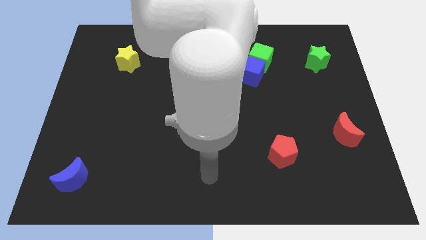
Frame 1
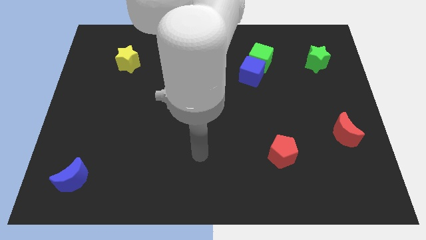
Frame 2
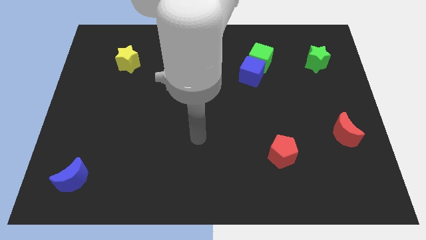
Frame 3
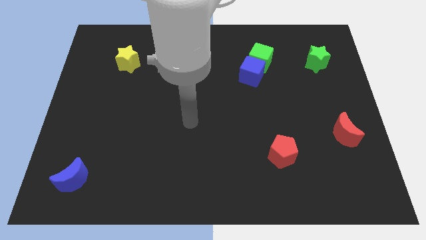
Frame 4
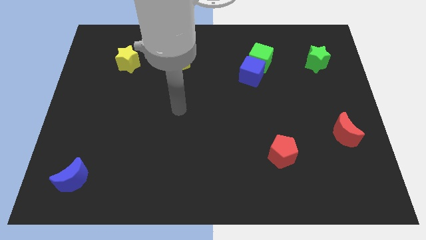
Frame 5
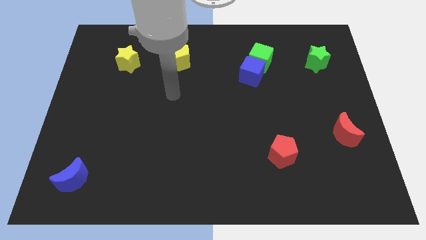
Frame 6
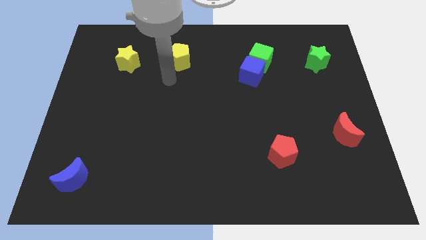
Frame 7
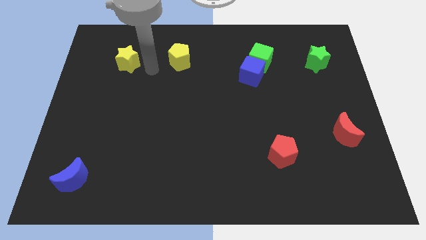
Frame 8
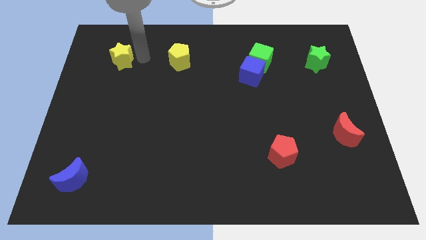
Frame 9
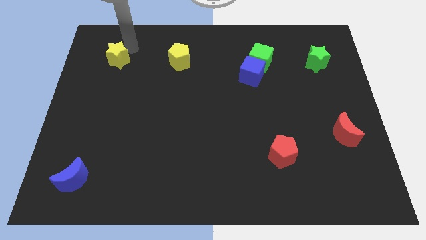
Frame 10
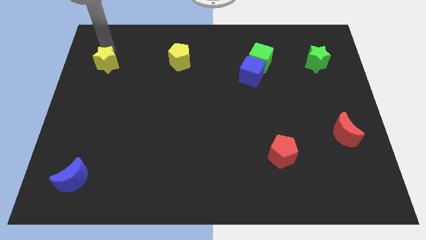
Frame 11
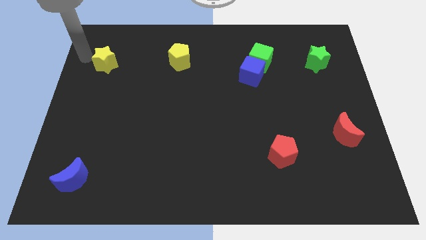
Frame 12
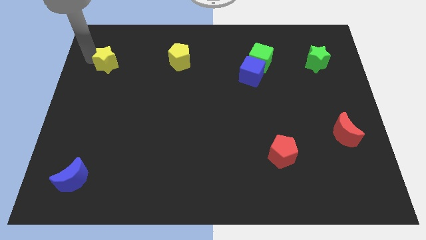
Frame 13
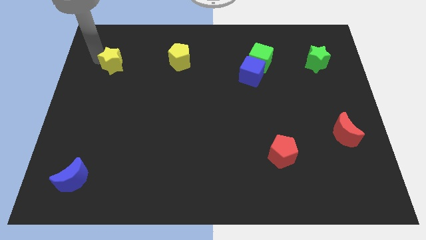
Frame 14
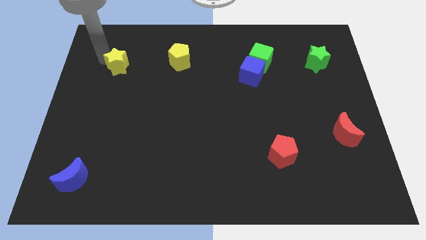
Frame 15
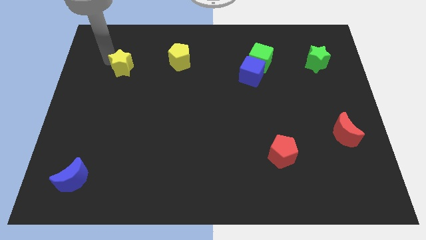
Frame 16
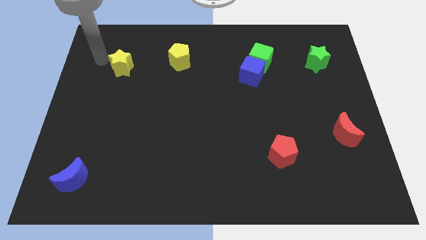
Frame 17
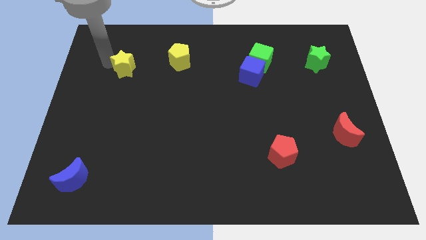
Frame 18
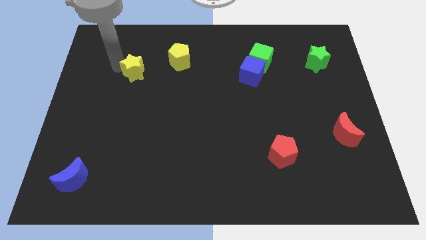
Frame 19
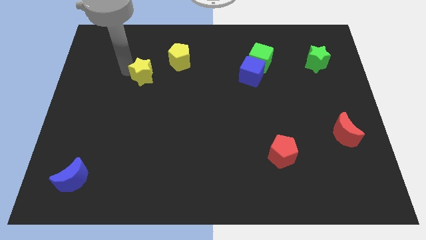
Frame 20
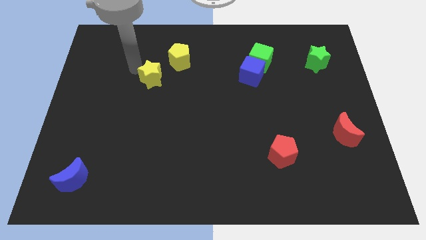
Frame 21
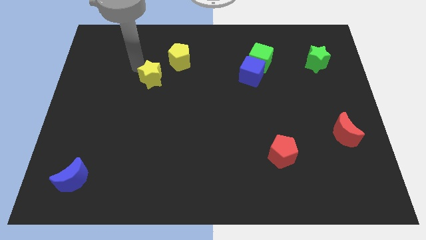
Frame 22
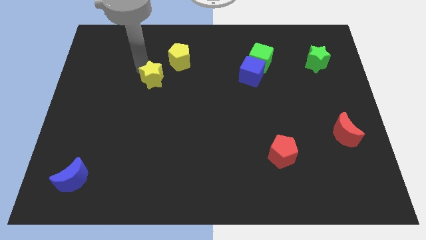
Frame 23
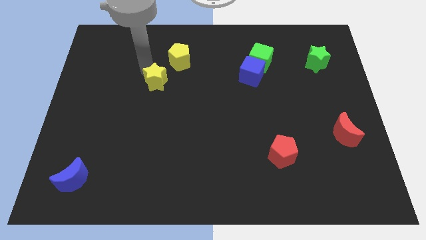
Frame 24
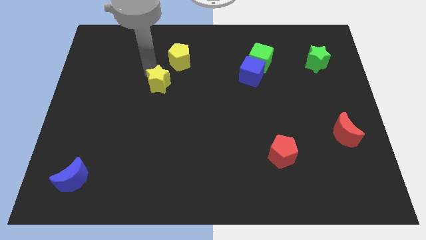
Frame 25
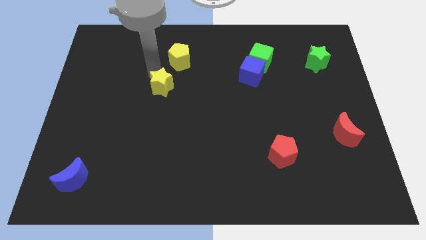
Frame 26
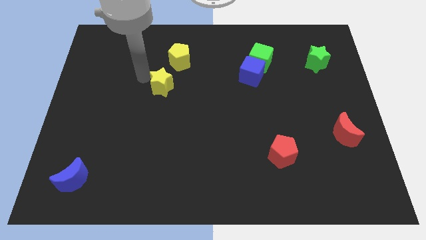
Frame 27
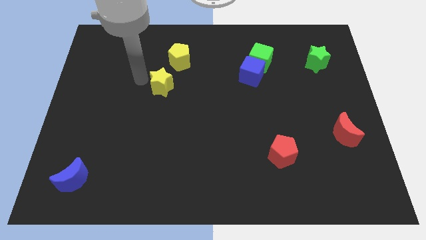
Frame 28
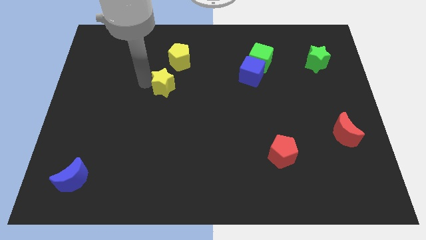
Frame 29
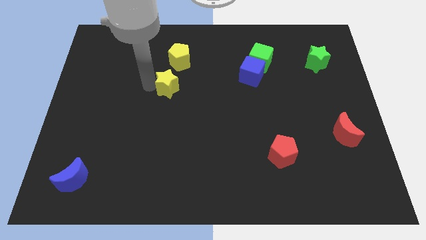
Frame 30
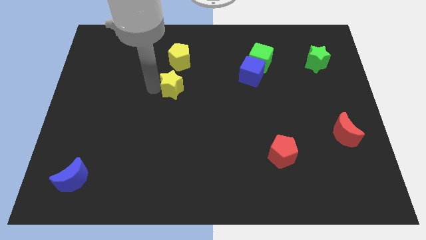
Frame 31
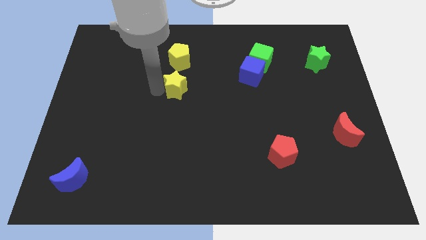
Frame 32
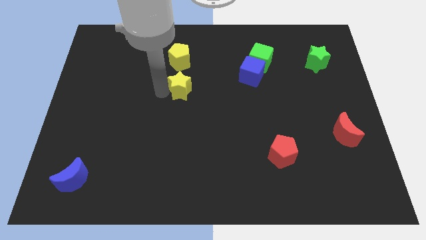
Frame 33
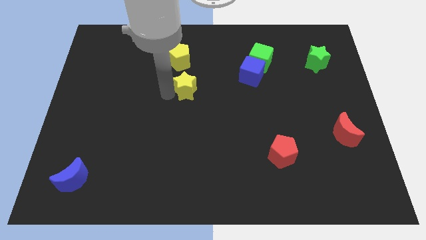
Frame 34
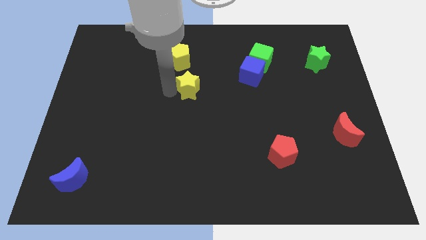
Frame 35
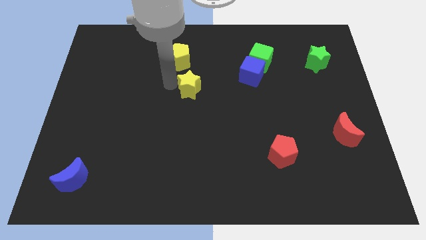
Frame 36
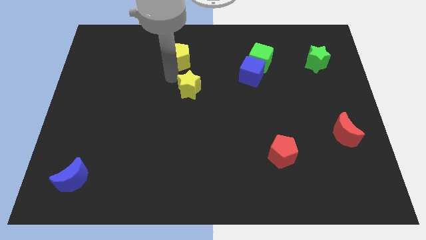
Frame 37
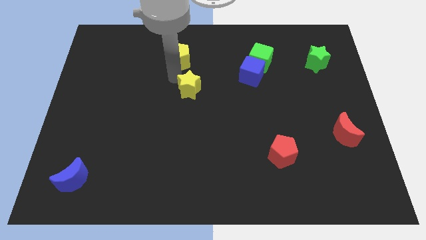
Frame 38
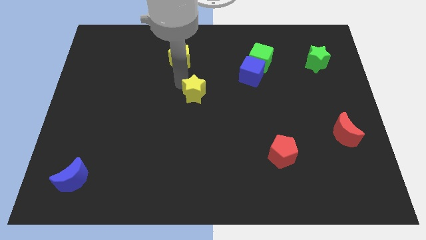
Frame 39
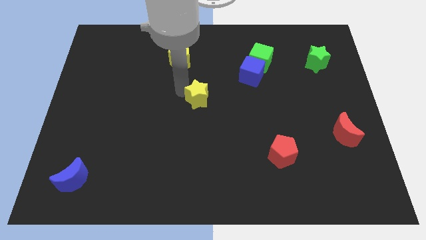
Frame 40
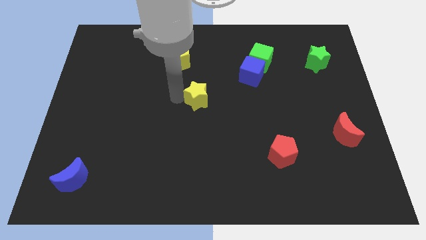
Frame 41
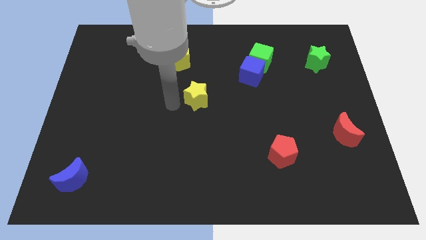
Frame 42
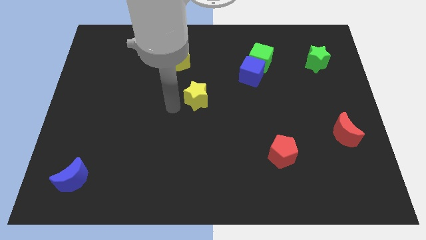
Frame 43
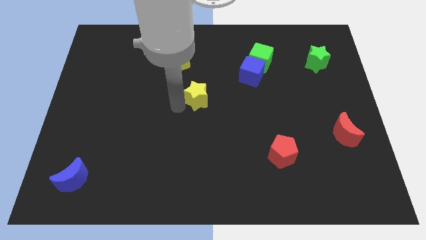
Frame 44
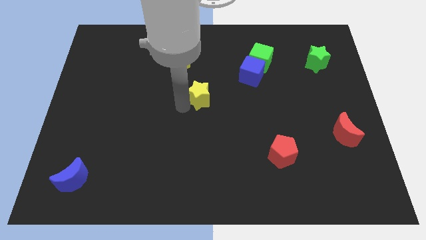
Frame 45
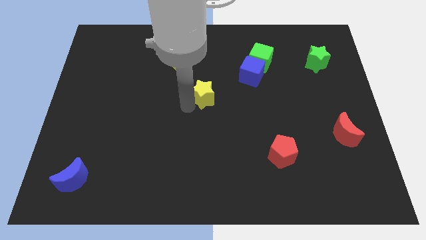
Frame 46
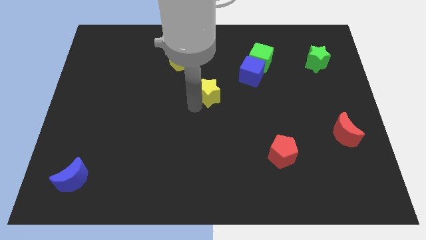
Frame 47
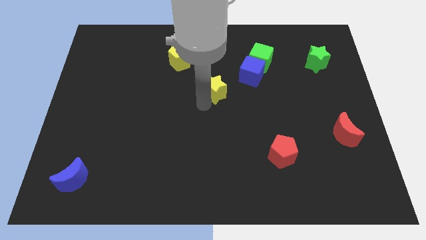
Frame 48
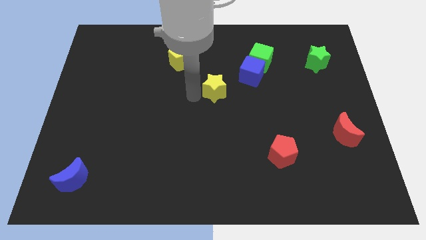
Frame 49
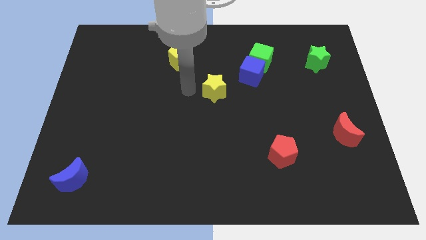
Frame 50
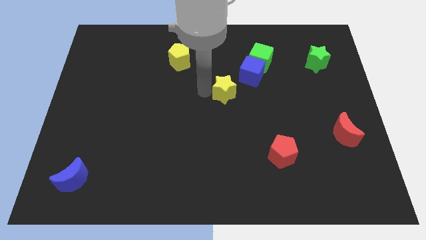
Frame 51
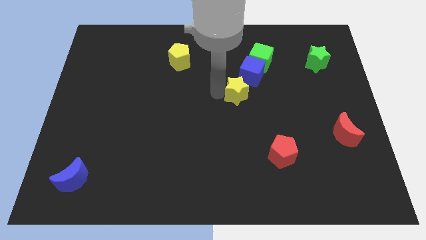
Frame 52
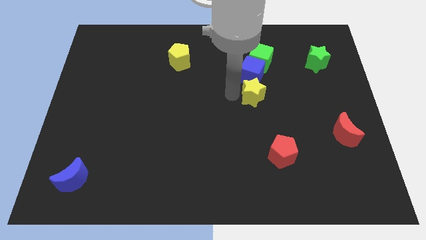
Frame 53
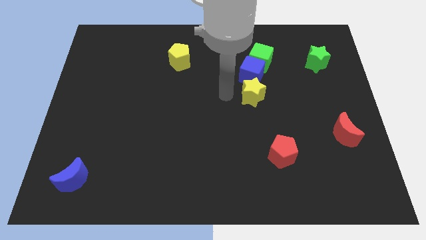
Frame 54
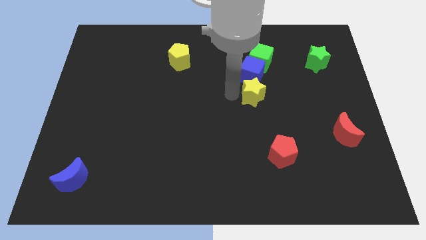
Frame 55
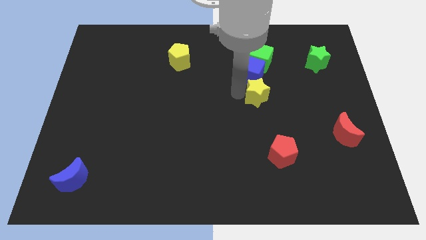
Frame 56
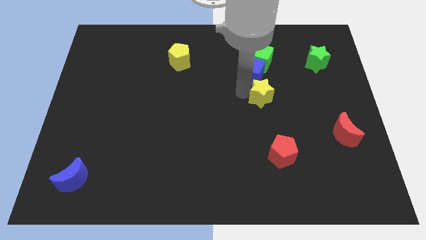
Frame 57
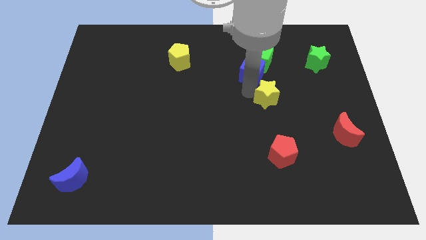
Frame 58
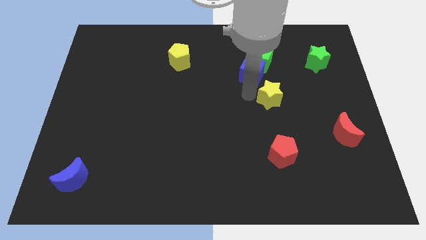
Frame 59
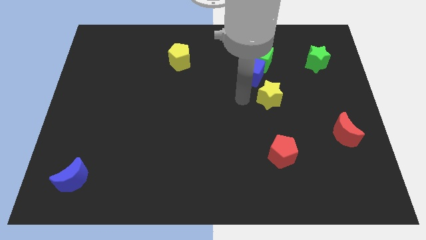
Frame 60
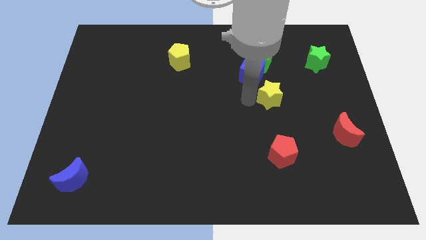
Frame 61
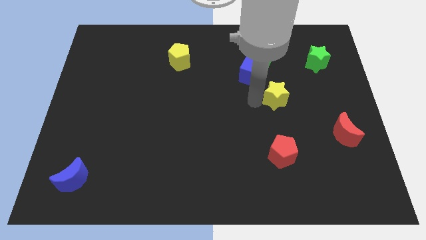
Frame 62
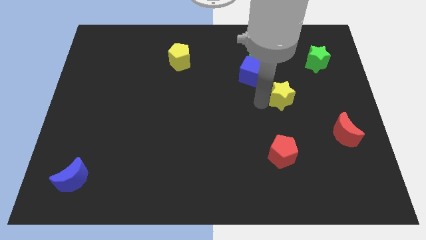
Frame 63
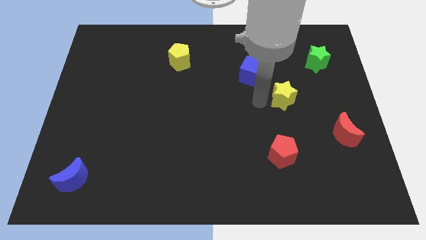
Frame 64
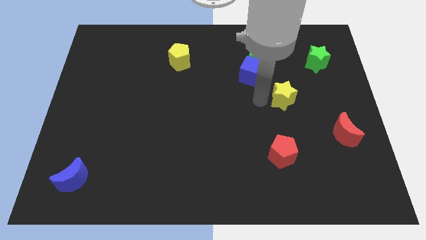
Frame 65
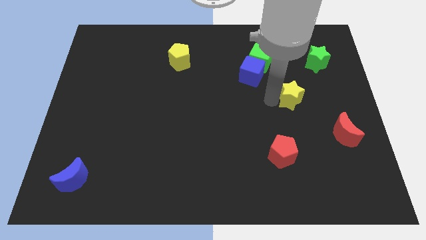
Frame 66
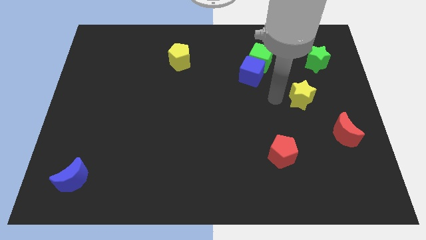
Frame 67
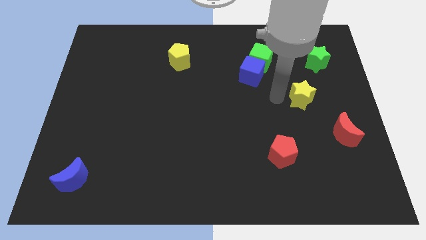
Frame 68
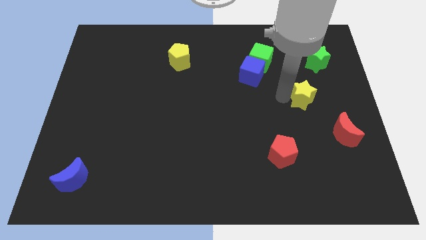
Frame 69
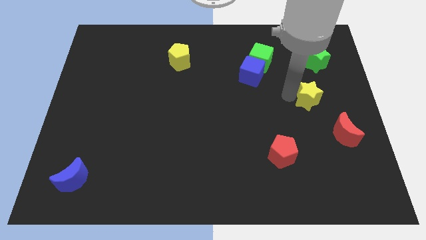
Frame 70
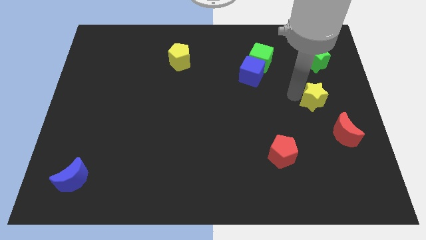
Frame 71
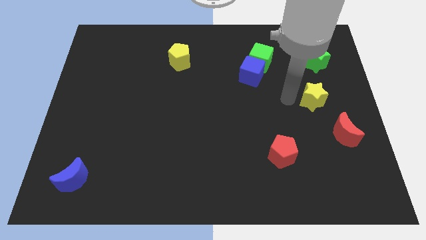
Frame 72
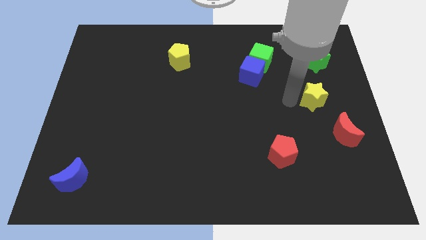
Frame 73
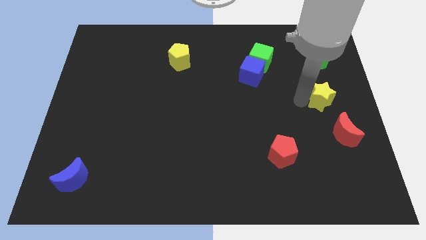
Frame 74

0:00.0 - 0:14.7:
move the yellow star to the right side of the board
